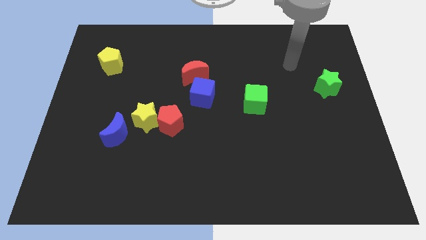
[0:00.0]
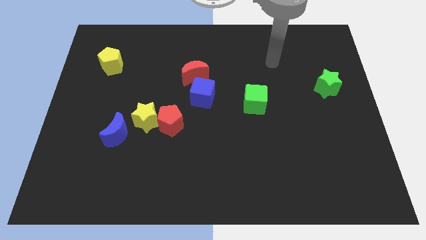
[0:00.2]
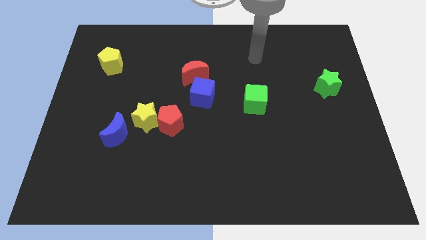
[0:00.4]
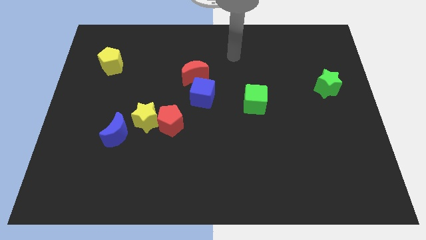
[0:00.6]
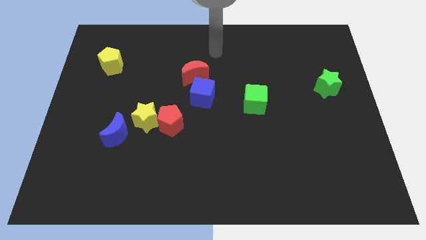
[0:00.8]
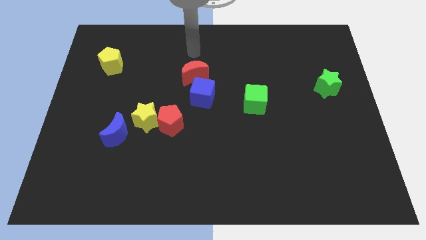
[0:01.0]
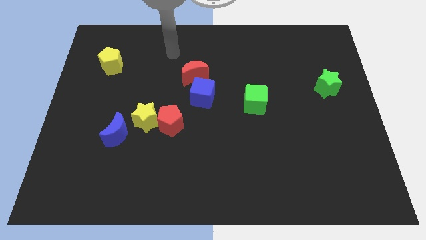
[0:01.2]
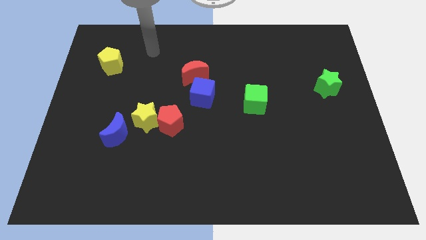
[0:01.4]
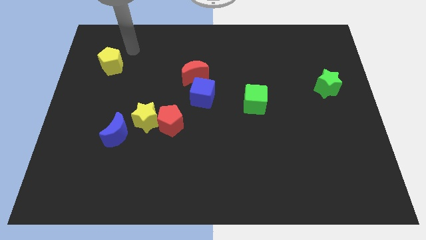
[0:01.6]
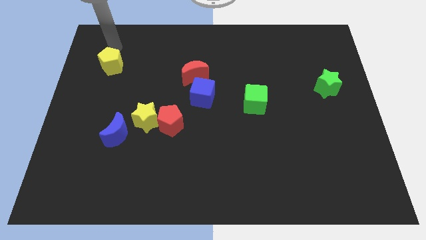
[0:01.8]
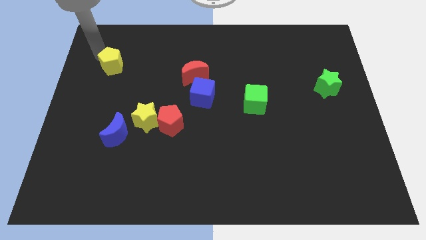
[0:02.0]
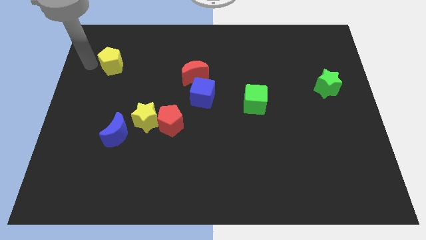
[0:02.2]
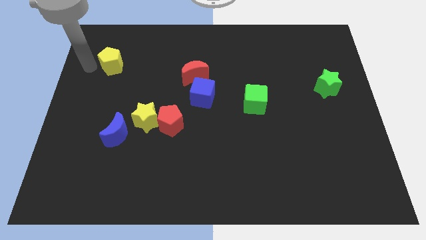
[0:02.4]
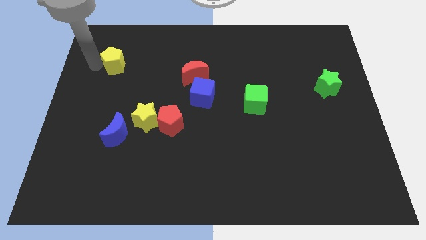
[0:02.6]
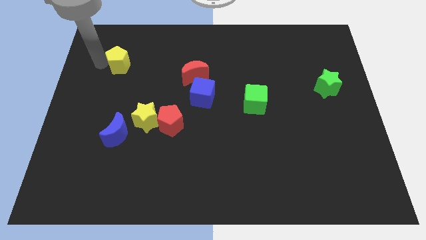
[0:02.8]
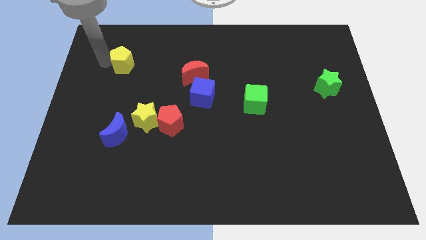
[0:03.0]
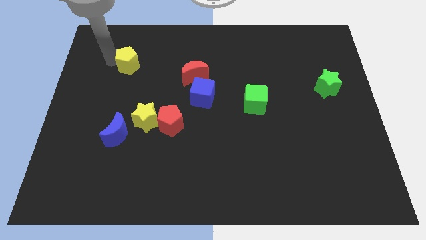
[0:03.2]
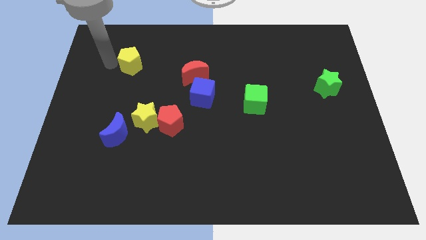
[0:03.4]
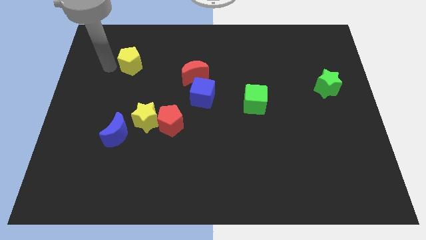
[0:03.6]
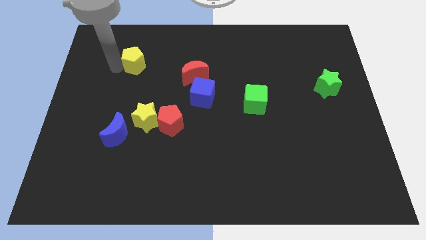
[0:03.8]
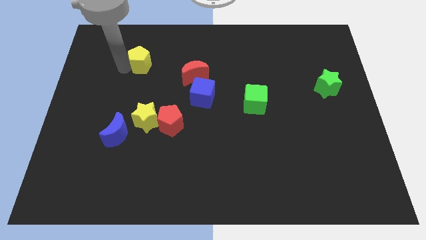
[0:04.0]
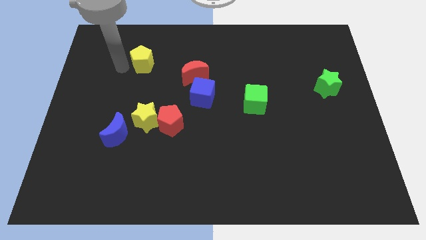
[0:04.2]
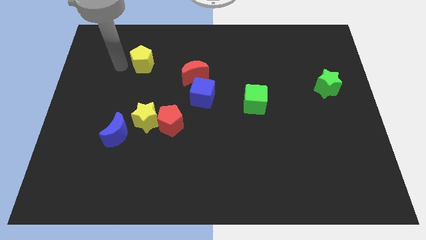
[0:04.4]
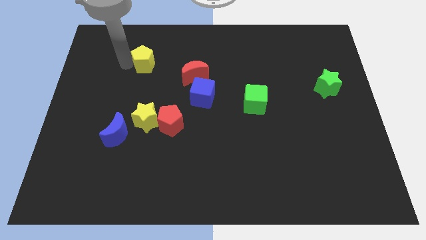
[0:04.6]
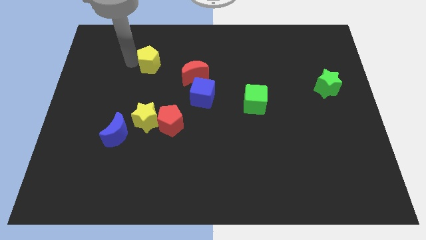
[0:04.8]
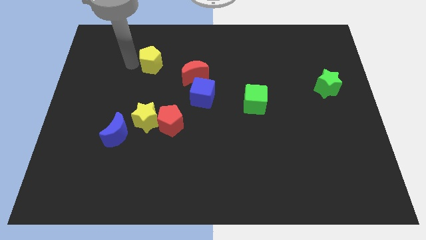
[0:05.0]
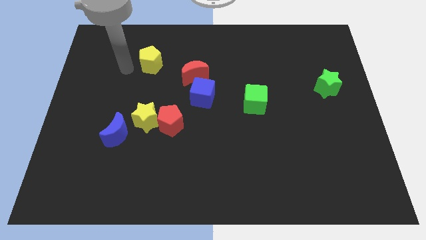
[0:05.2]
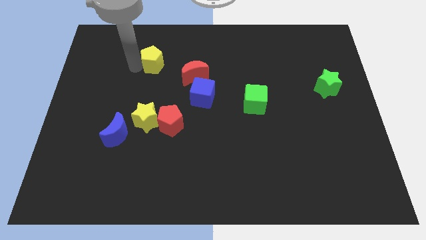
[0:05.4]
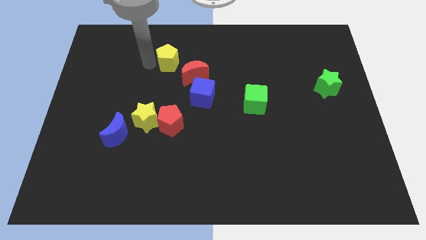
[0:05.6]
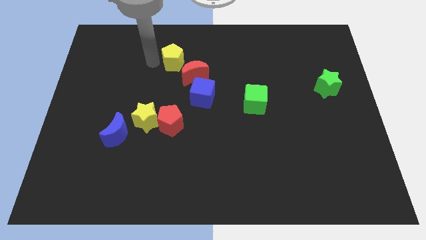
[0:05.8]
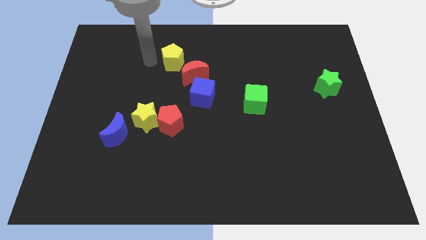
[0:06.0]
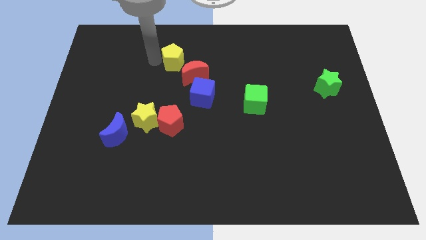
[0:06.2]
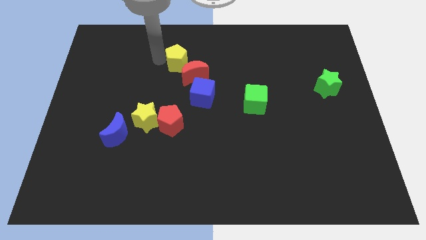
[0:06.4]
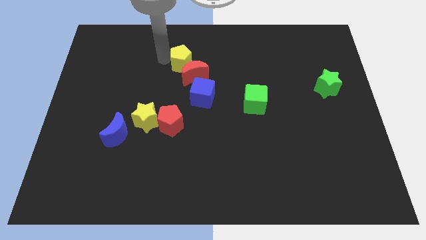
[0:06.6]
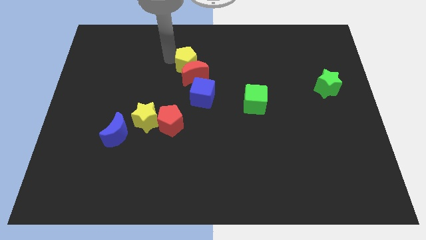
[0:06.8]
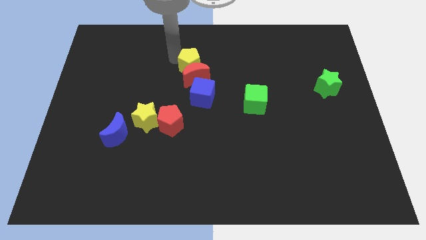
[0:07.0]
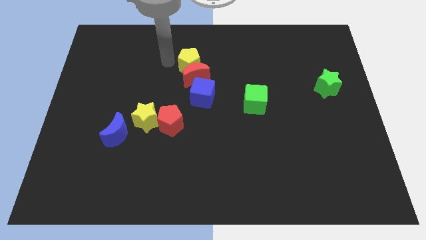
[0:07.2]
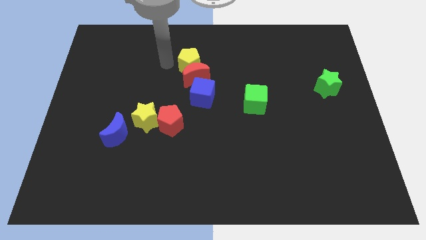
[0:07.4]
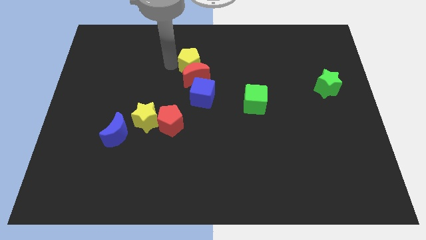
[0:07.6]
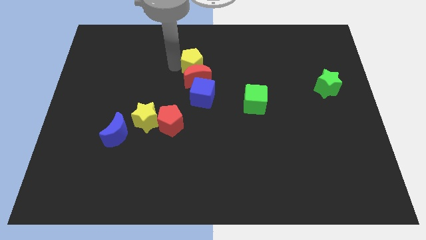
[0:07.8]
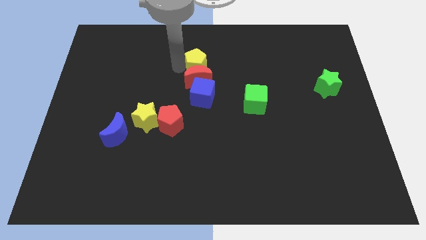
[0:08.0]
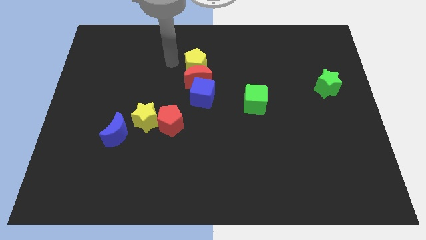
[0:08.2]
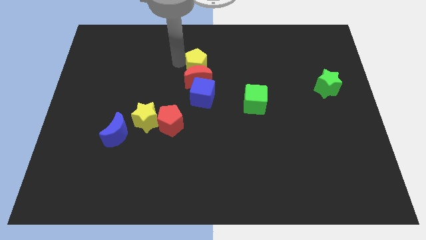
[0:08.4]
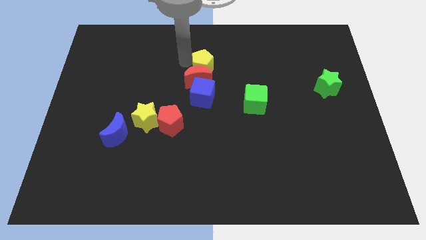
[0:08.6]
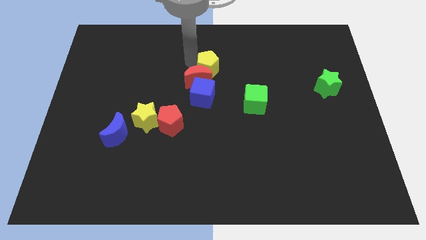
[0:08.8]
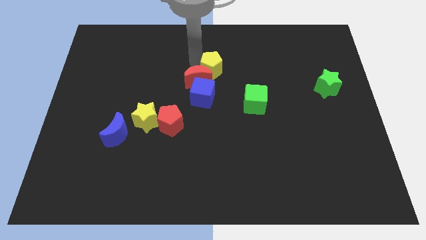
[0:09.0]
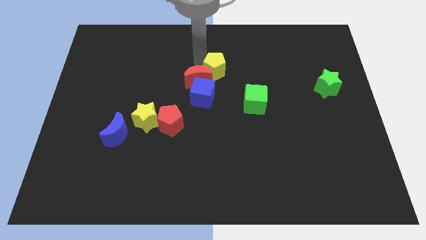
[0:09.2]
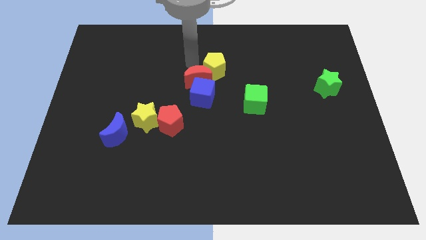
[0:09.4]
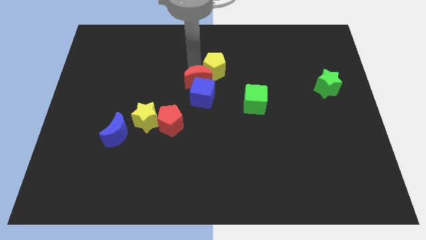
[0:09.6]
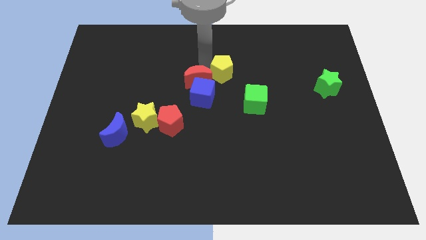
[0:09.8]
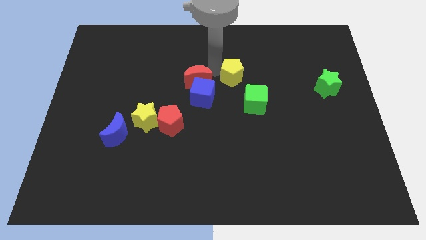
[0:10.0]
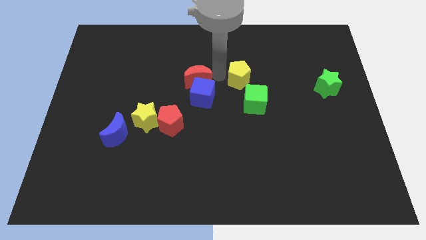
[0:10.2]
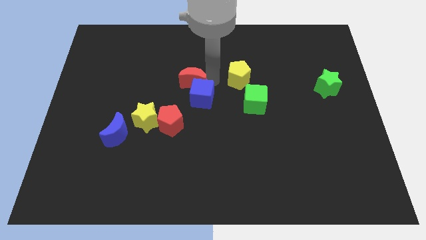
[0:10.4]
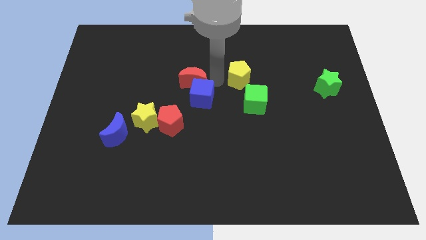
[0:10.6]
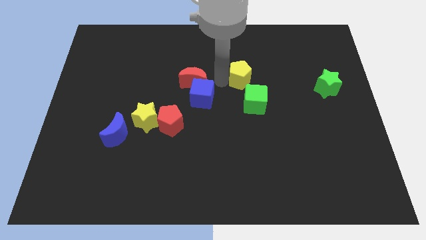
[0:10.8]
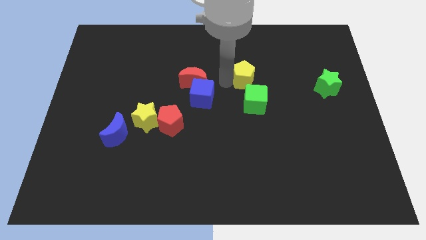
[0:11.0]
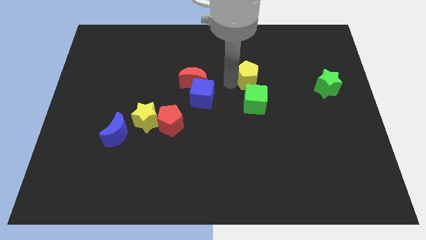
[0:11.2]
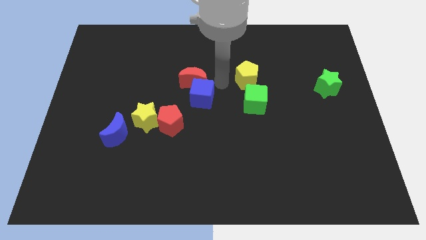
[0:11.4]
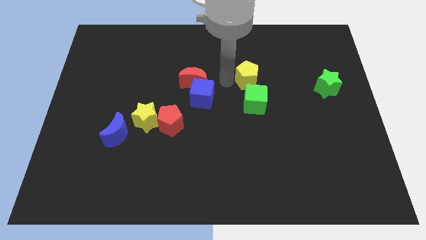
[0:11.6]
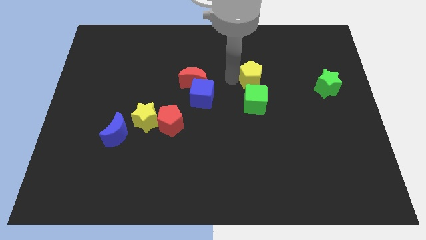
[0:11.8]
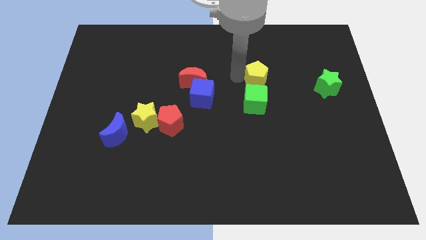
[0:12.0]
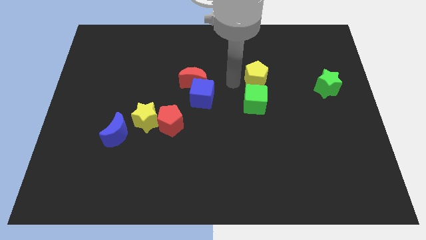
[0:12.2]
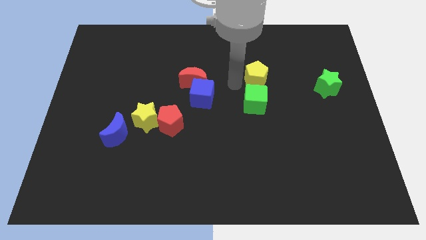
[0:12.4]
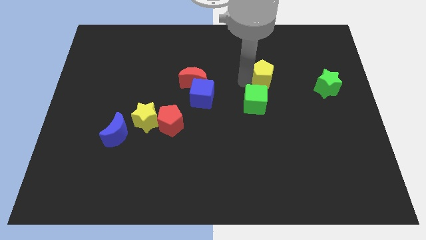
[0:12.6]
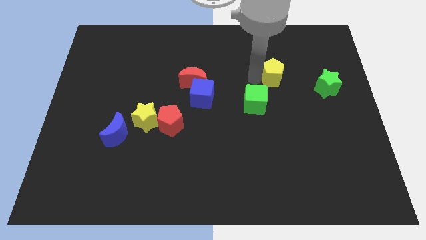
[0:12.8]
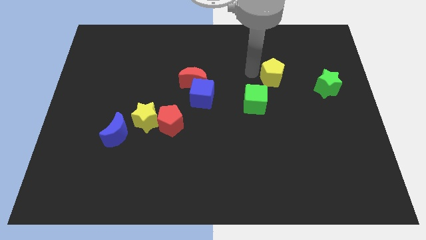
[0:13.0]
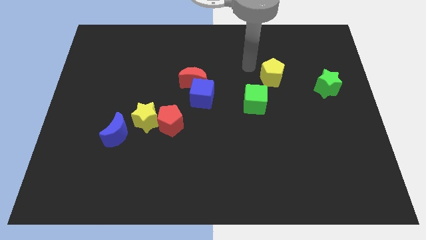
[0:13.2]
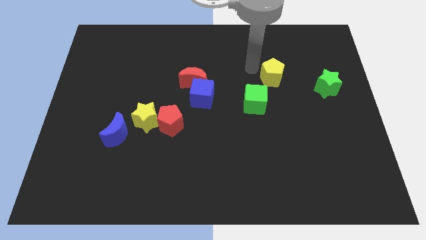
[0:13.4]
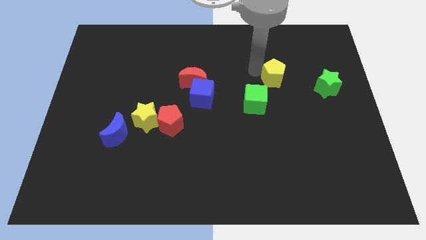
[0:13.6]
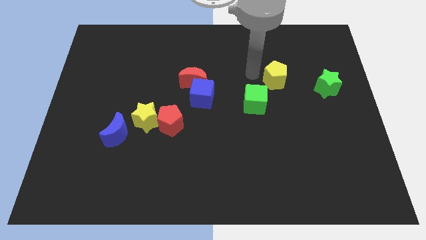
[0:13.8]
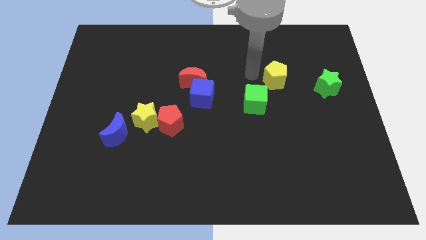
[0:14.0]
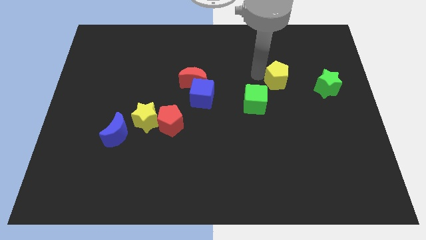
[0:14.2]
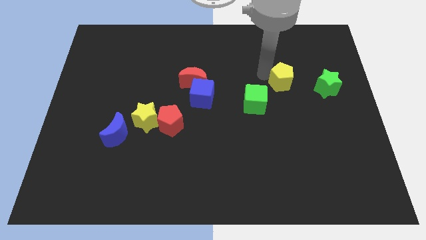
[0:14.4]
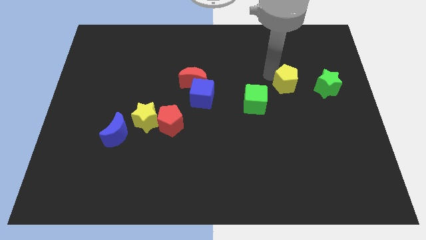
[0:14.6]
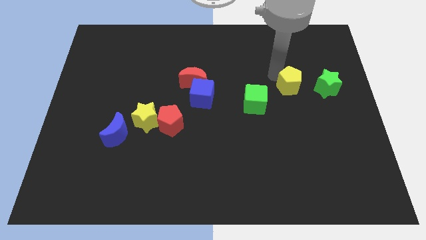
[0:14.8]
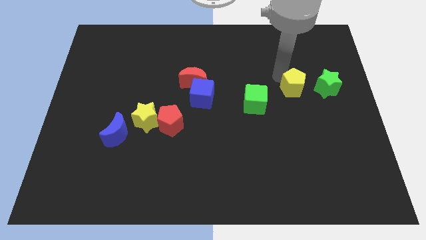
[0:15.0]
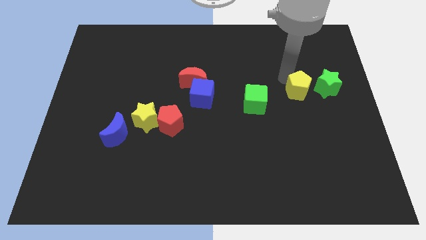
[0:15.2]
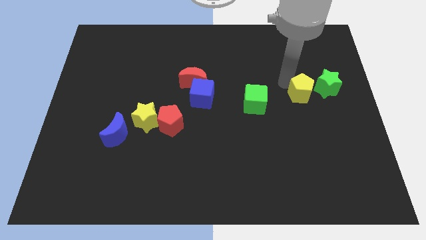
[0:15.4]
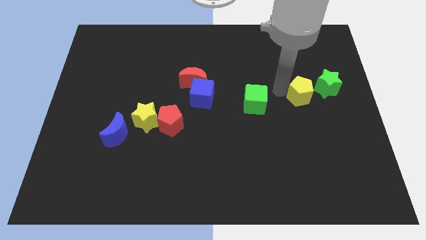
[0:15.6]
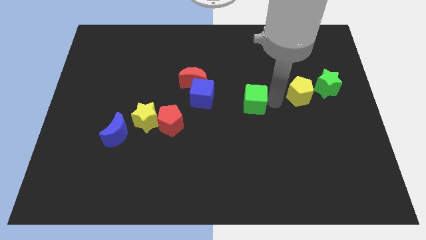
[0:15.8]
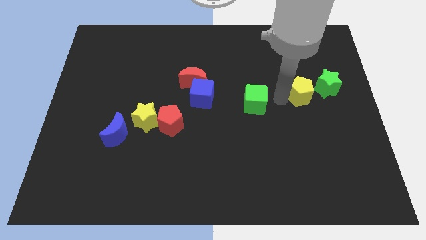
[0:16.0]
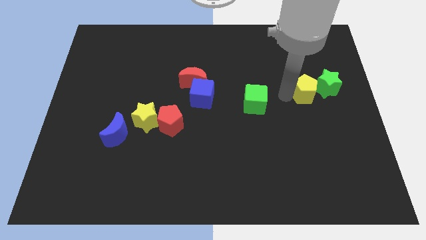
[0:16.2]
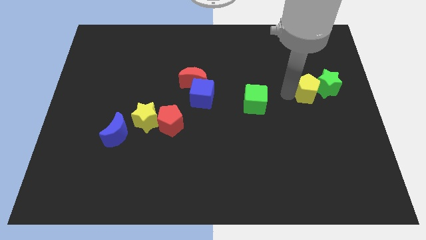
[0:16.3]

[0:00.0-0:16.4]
push the yellow pentagon to the green star
